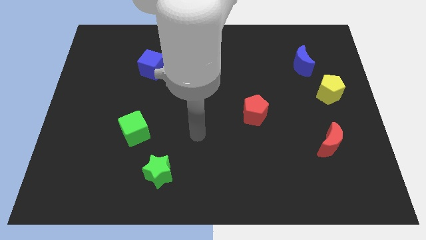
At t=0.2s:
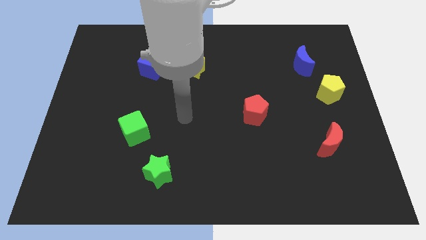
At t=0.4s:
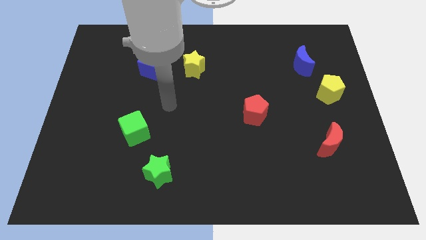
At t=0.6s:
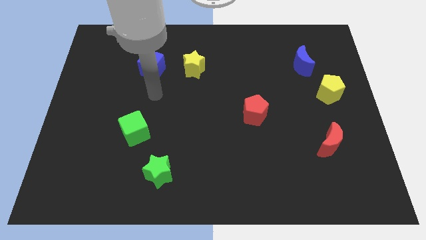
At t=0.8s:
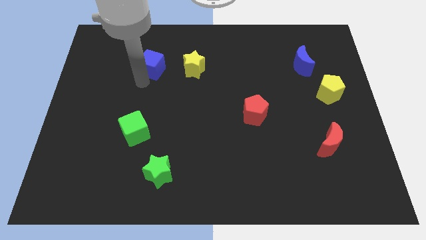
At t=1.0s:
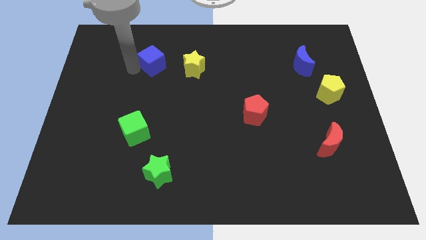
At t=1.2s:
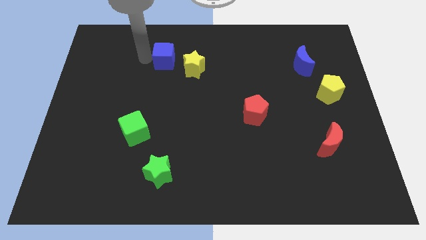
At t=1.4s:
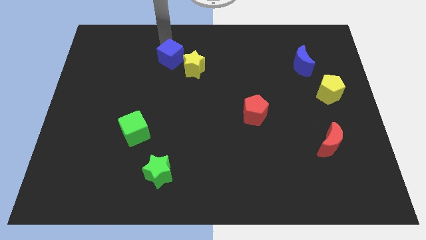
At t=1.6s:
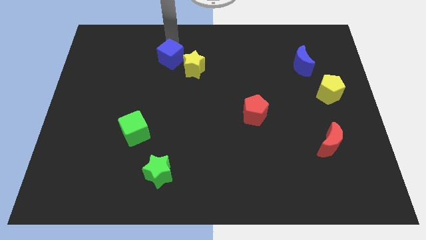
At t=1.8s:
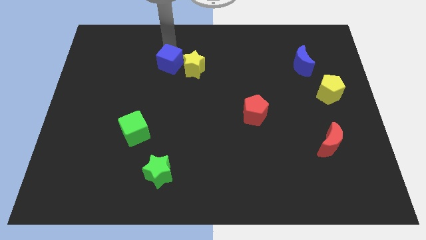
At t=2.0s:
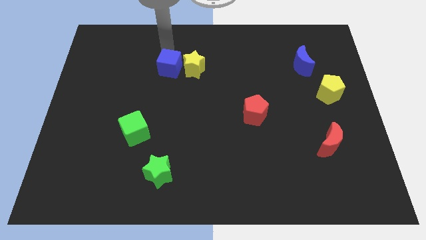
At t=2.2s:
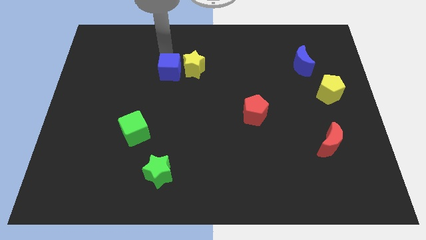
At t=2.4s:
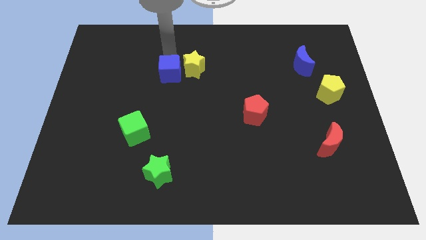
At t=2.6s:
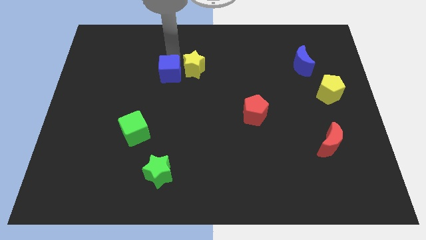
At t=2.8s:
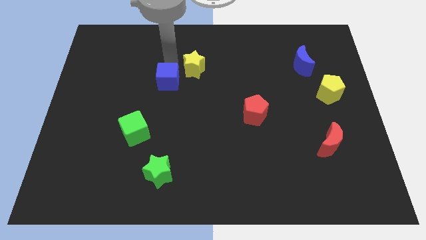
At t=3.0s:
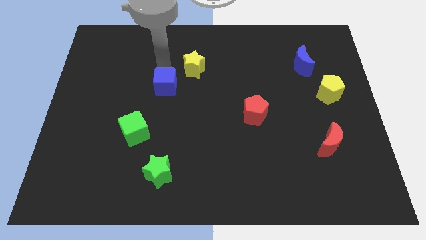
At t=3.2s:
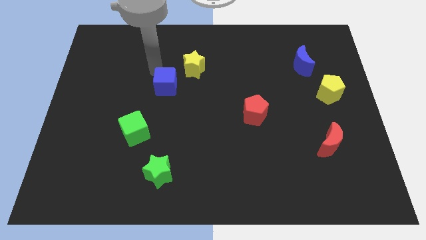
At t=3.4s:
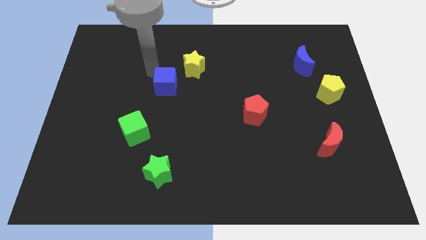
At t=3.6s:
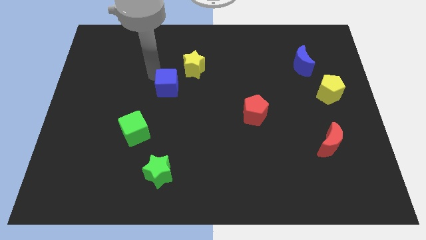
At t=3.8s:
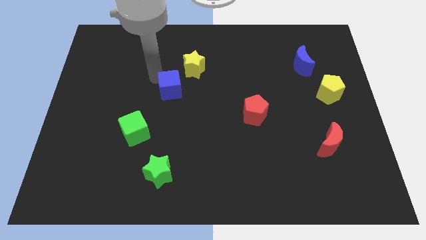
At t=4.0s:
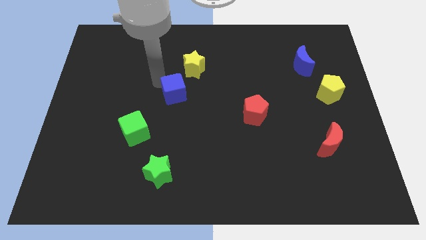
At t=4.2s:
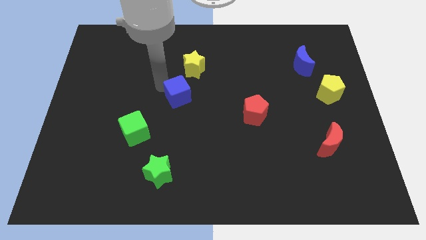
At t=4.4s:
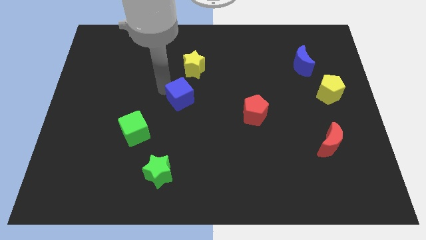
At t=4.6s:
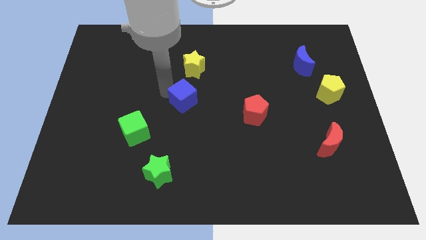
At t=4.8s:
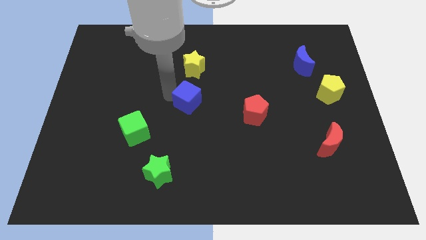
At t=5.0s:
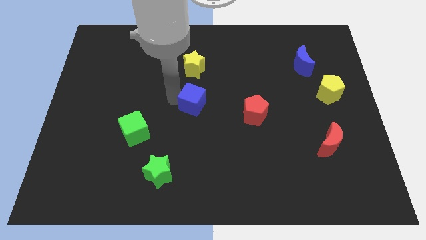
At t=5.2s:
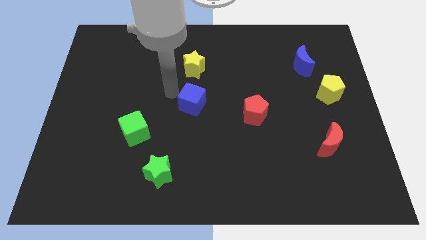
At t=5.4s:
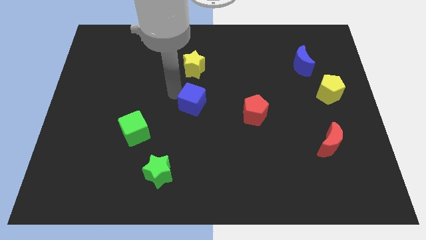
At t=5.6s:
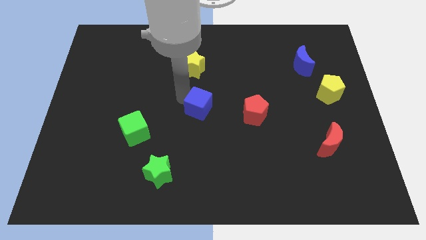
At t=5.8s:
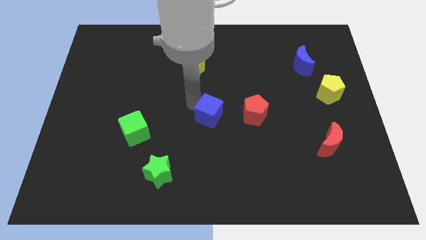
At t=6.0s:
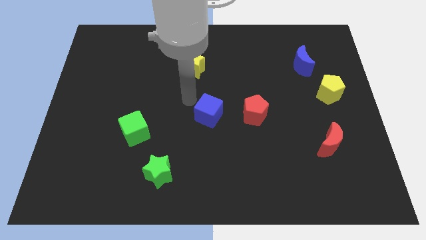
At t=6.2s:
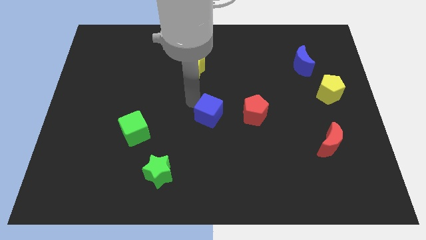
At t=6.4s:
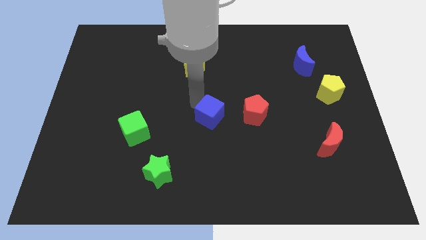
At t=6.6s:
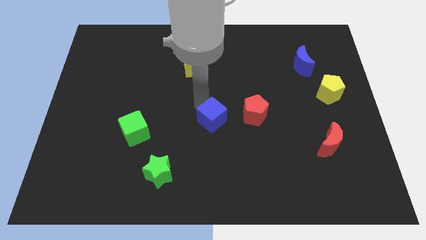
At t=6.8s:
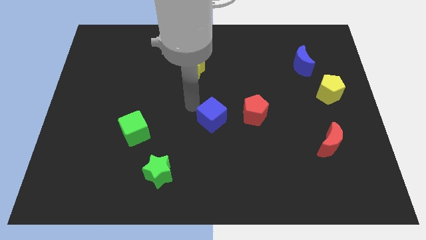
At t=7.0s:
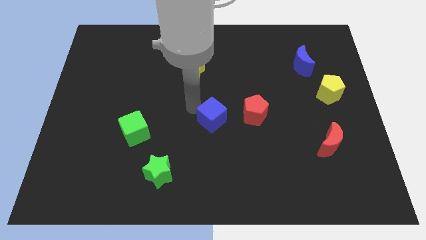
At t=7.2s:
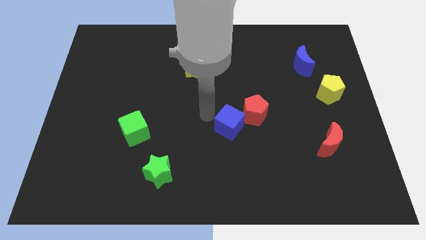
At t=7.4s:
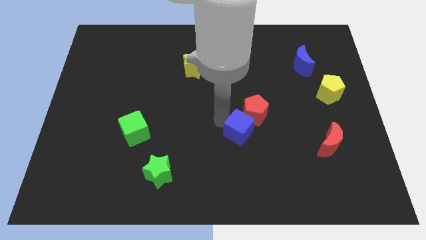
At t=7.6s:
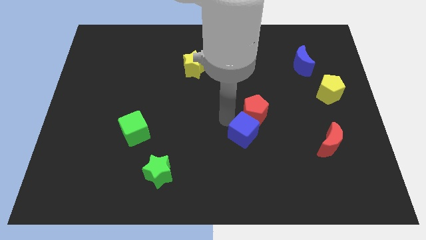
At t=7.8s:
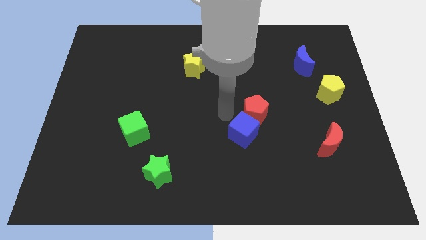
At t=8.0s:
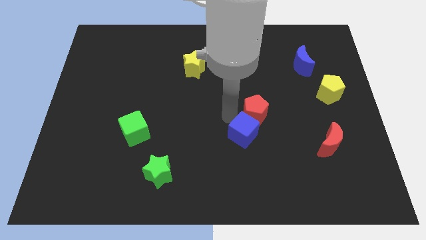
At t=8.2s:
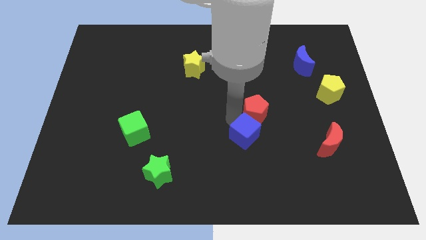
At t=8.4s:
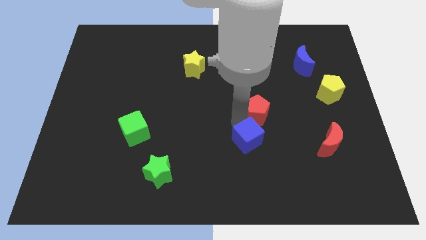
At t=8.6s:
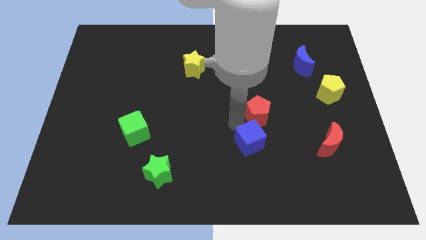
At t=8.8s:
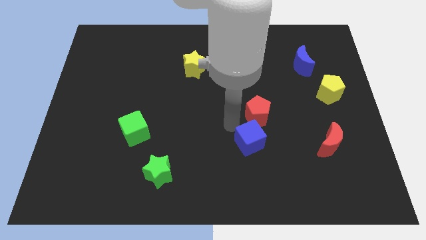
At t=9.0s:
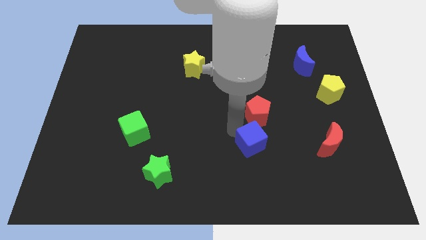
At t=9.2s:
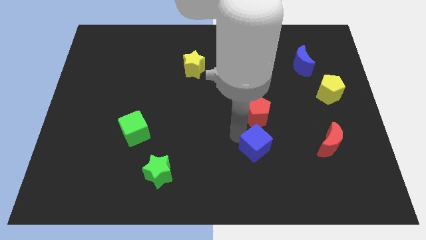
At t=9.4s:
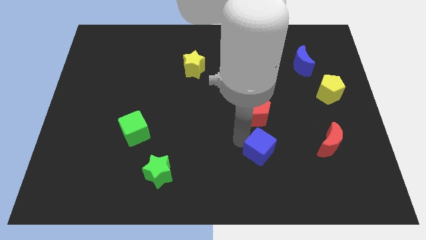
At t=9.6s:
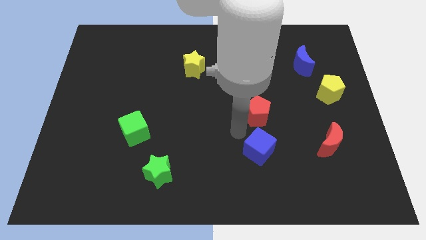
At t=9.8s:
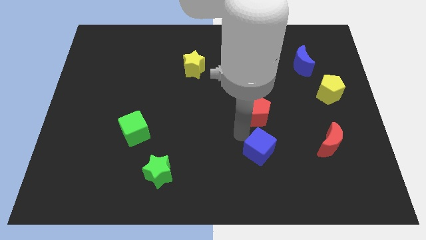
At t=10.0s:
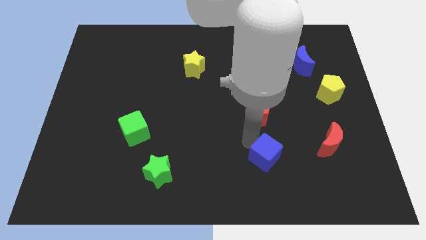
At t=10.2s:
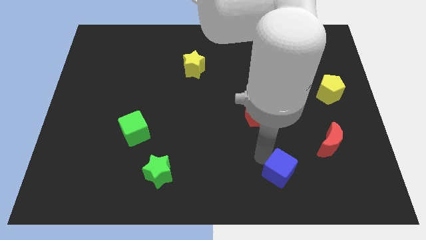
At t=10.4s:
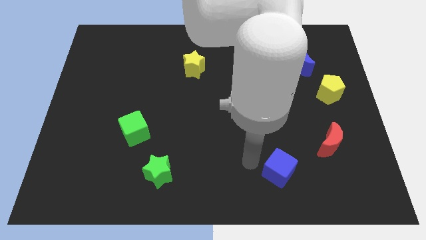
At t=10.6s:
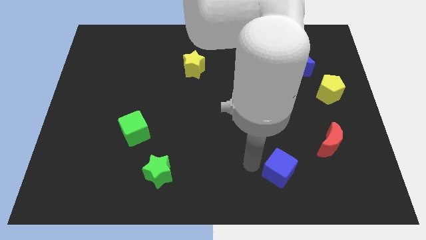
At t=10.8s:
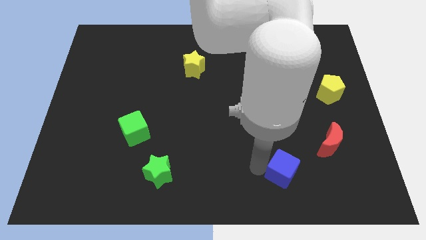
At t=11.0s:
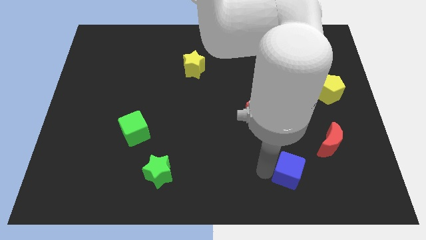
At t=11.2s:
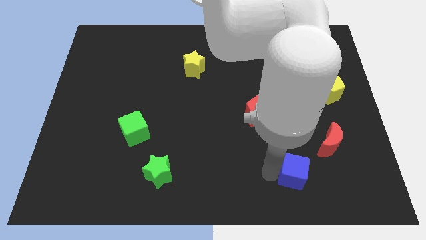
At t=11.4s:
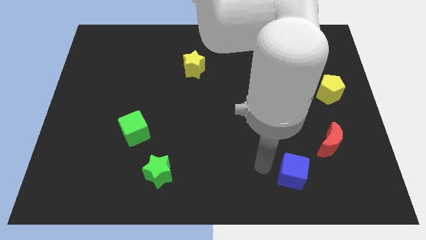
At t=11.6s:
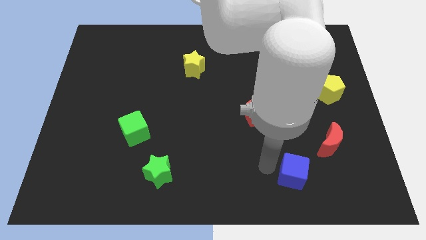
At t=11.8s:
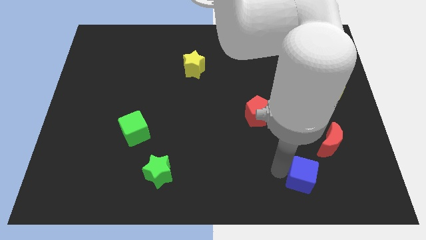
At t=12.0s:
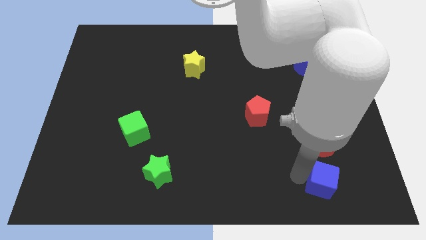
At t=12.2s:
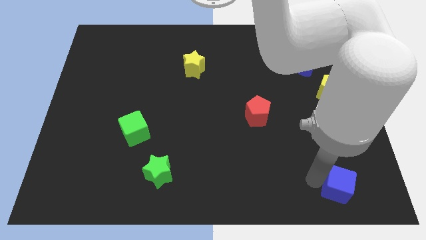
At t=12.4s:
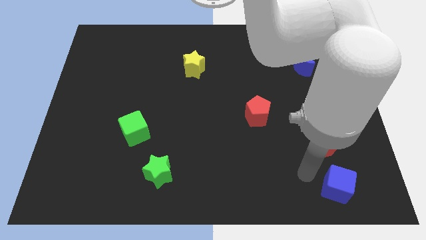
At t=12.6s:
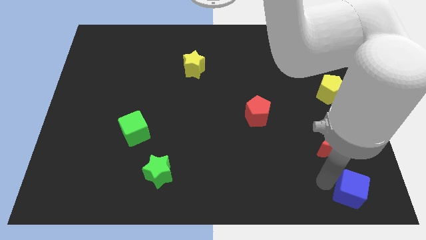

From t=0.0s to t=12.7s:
move the blue cube to the bottom right
